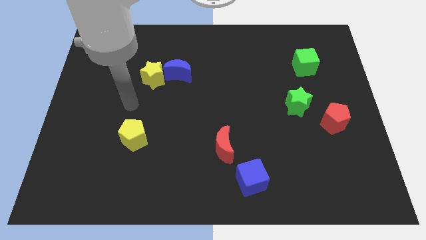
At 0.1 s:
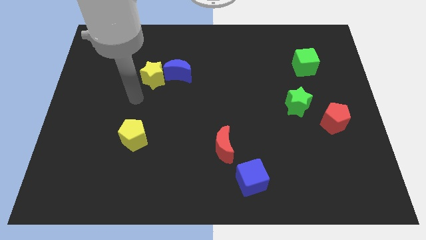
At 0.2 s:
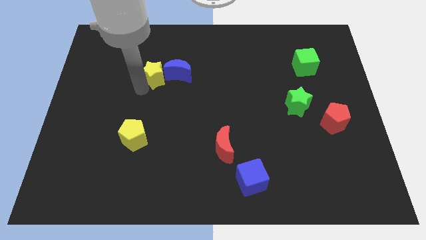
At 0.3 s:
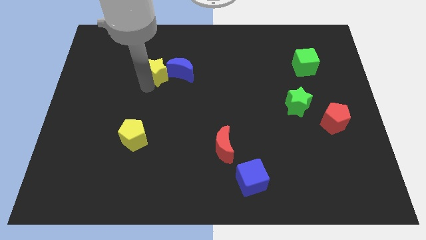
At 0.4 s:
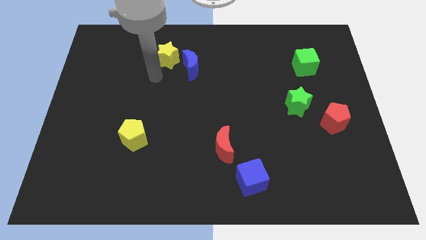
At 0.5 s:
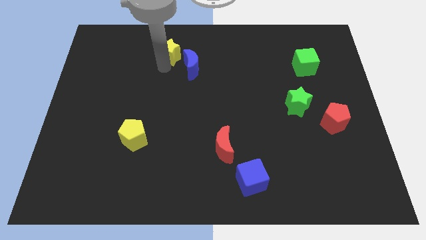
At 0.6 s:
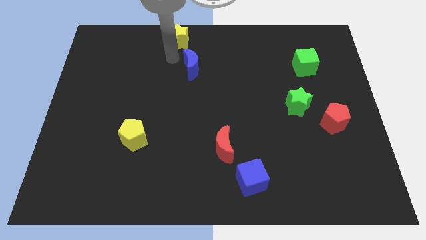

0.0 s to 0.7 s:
move the blue moon away from the yellow star

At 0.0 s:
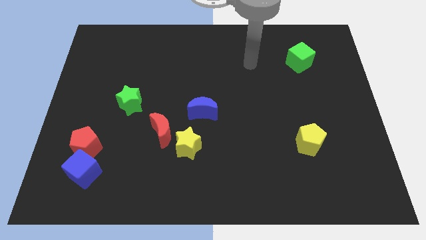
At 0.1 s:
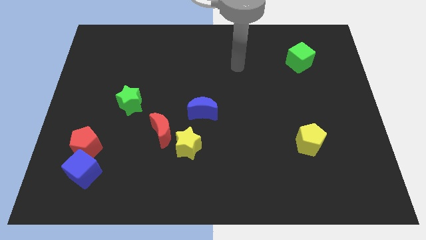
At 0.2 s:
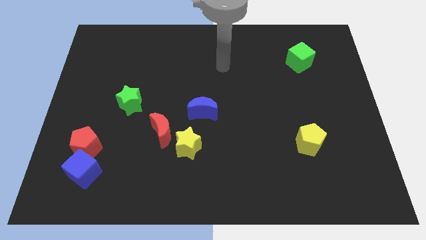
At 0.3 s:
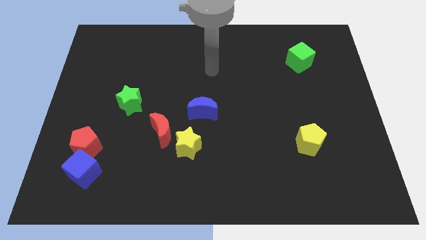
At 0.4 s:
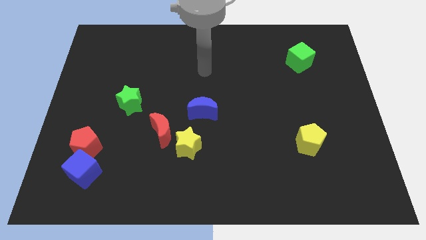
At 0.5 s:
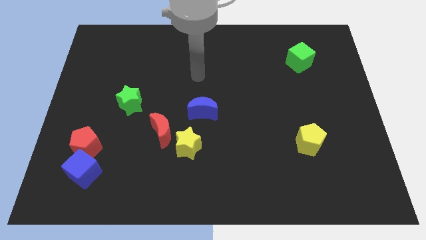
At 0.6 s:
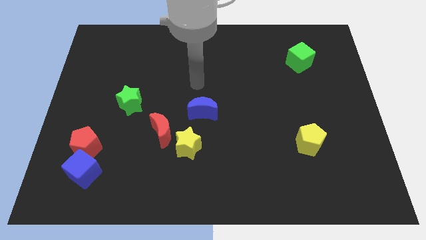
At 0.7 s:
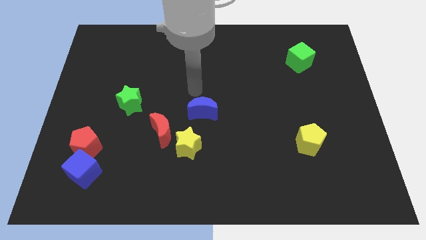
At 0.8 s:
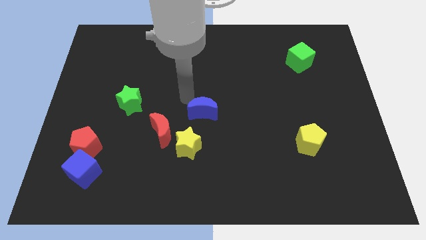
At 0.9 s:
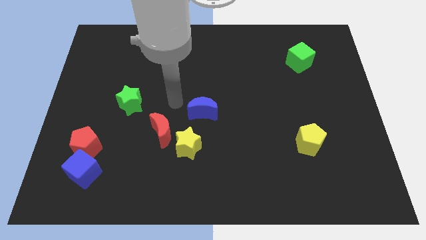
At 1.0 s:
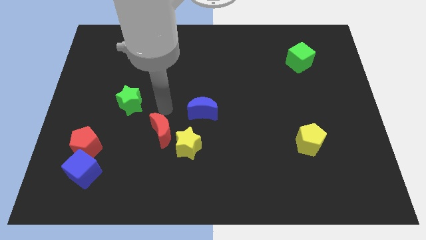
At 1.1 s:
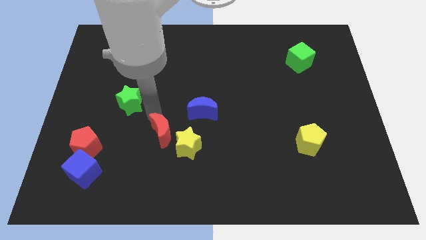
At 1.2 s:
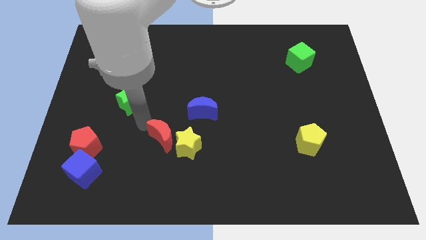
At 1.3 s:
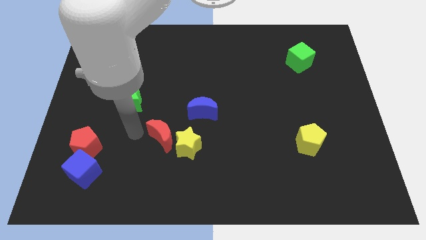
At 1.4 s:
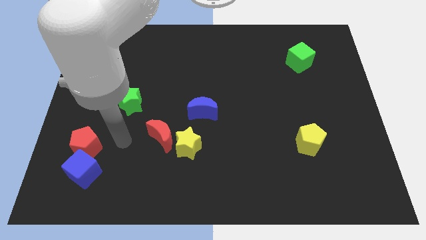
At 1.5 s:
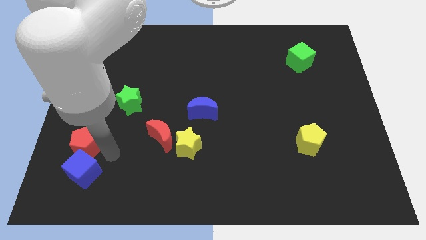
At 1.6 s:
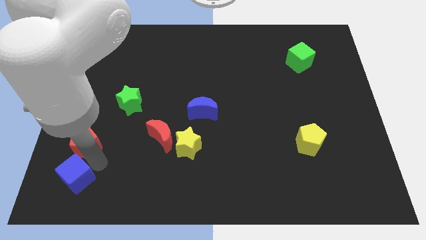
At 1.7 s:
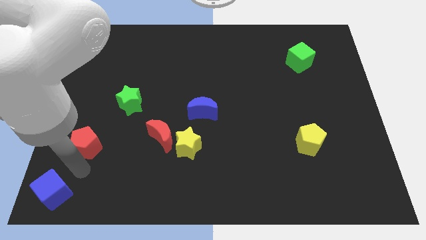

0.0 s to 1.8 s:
pull the red pentagon apart from the blue cube

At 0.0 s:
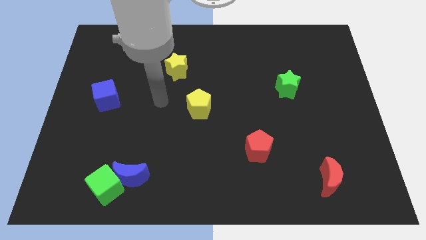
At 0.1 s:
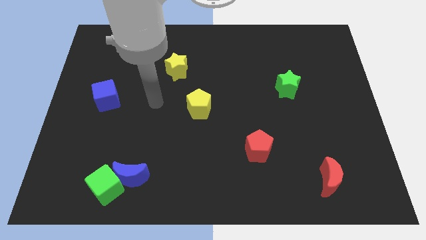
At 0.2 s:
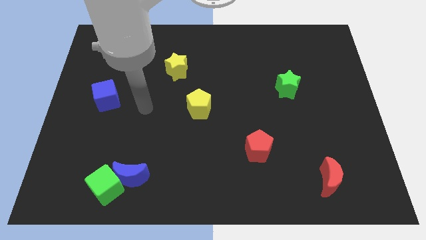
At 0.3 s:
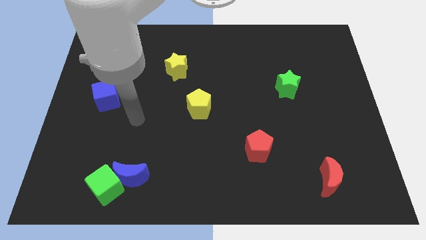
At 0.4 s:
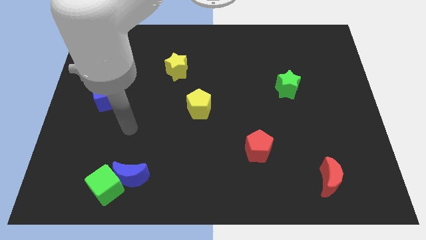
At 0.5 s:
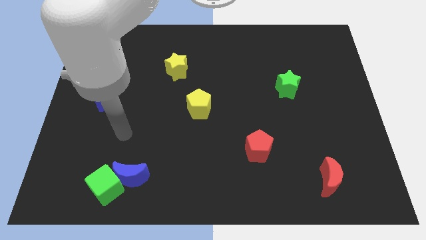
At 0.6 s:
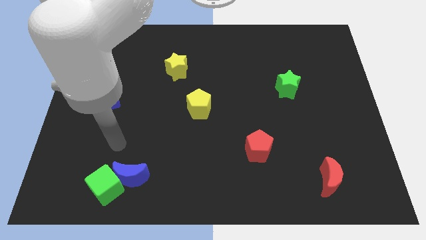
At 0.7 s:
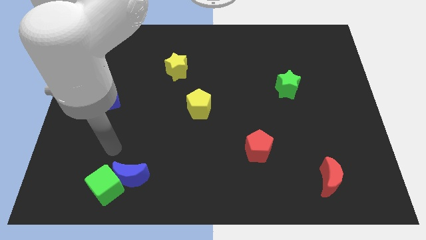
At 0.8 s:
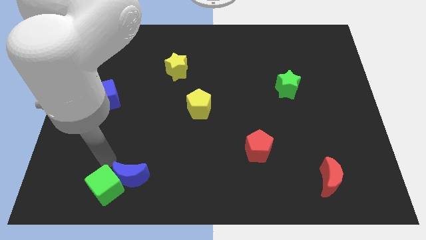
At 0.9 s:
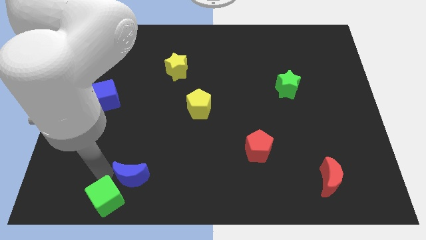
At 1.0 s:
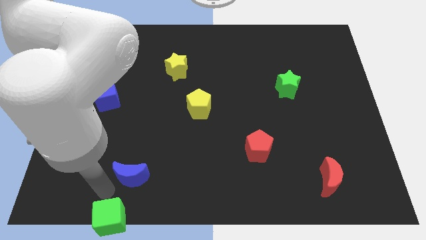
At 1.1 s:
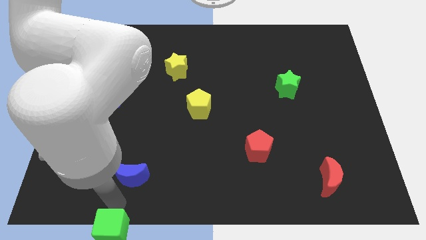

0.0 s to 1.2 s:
move the blue moon away from the green cube

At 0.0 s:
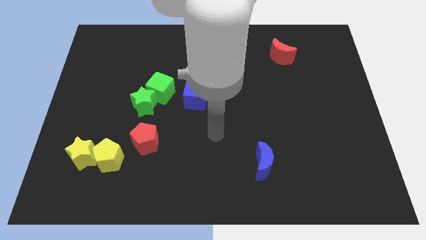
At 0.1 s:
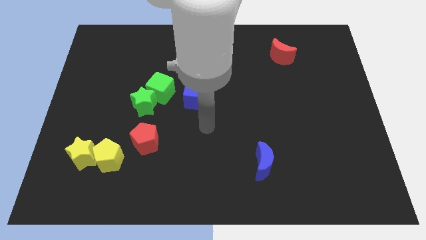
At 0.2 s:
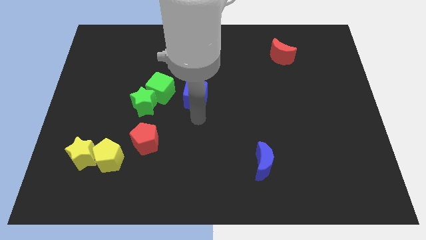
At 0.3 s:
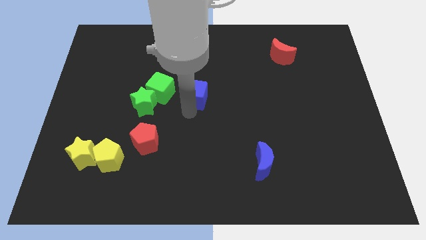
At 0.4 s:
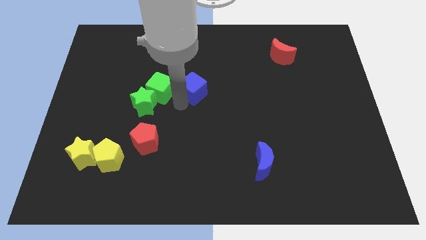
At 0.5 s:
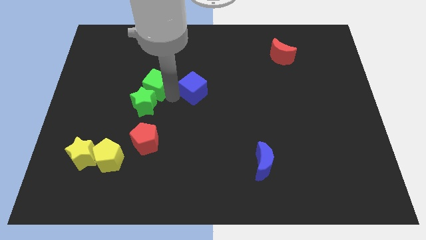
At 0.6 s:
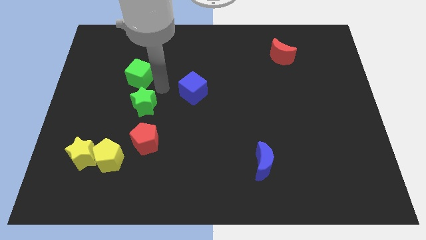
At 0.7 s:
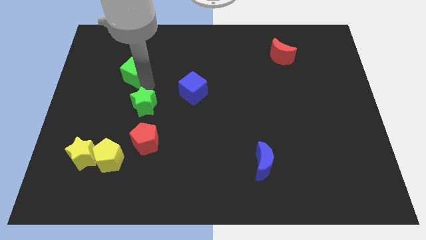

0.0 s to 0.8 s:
separate the green star from the green cube

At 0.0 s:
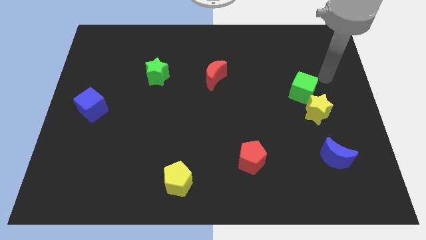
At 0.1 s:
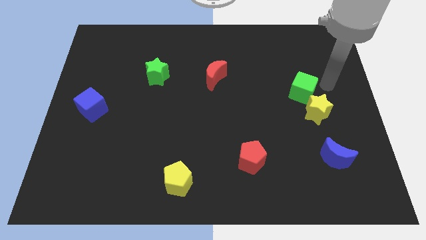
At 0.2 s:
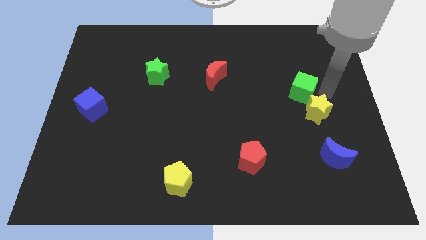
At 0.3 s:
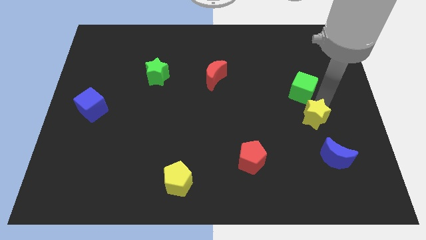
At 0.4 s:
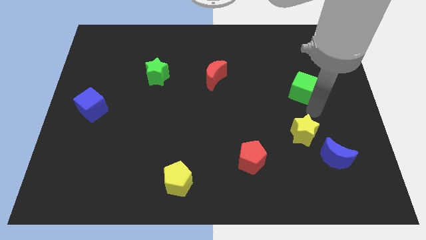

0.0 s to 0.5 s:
pull the green cube apart from the yellow star

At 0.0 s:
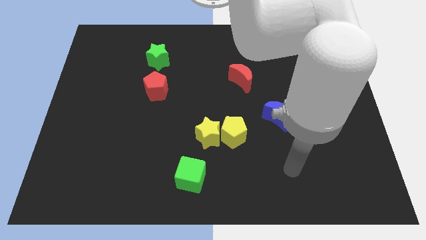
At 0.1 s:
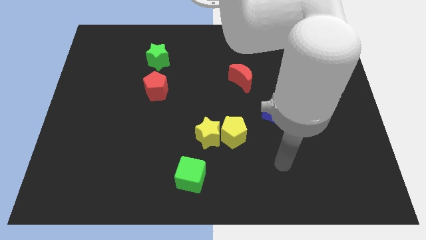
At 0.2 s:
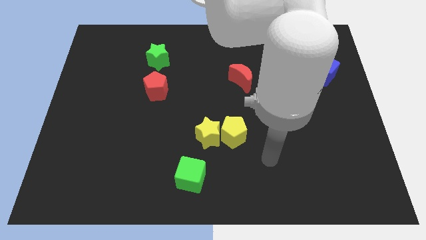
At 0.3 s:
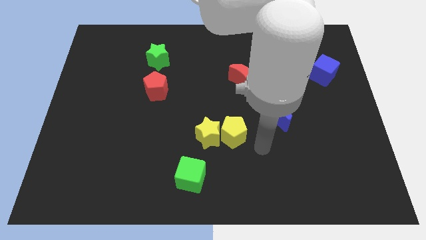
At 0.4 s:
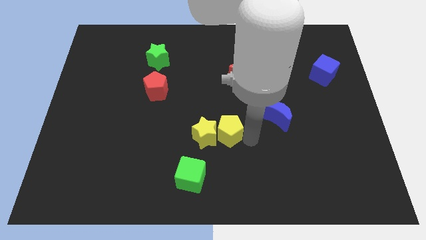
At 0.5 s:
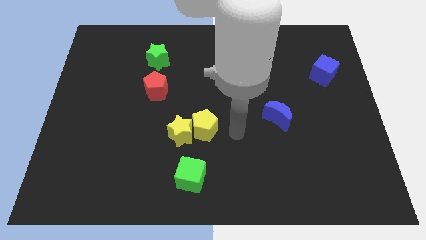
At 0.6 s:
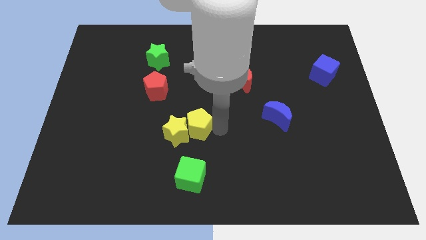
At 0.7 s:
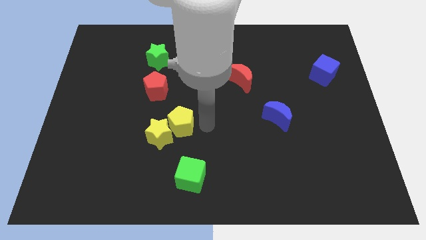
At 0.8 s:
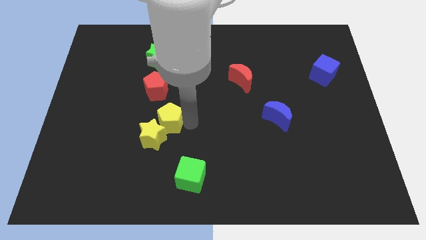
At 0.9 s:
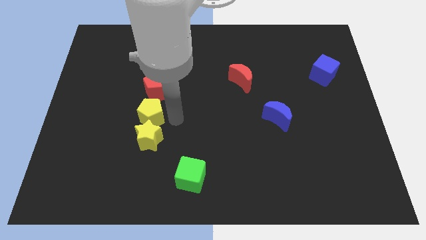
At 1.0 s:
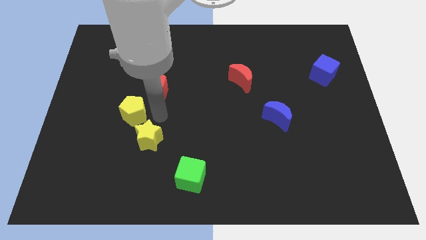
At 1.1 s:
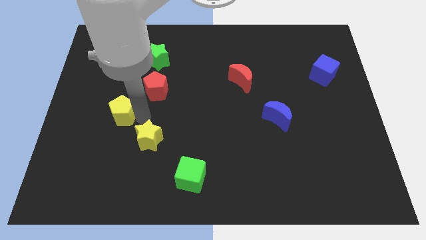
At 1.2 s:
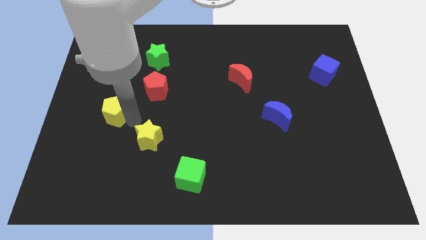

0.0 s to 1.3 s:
pull the yellow star apart from the yellow pentagon

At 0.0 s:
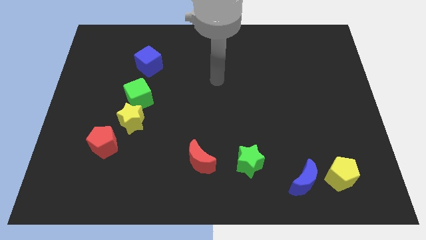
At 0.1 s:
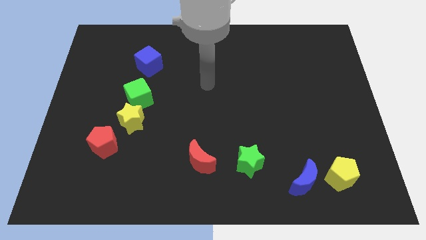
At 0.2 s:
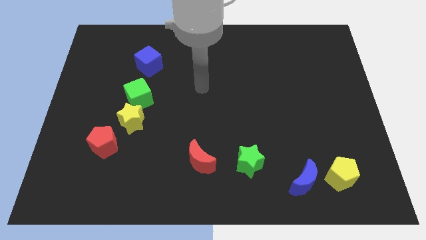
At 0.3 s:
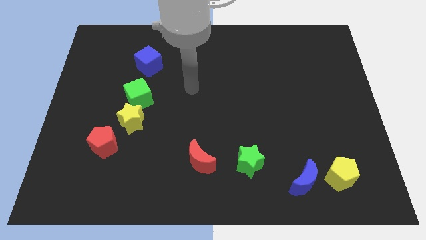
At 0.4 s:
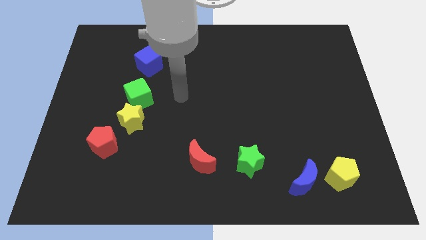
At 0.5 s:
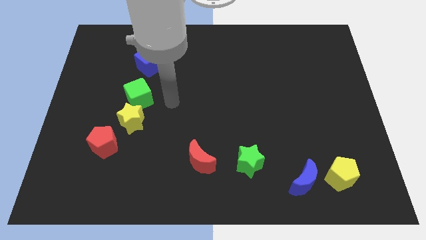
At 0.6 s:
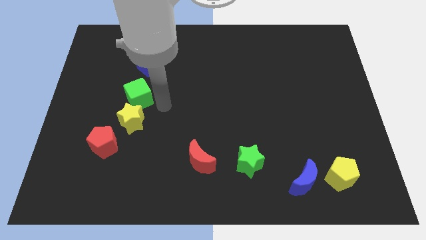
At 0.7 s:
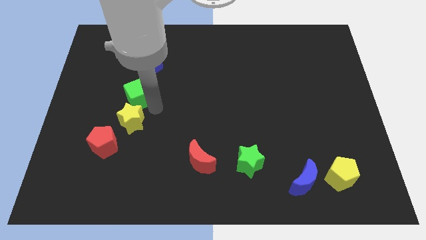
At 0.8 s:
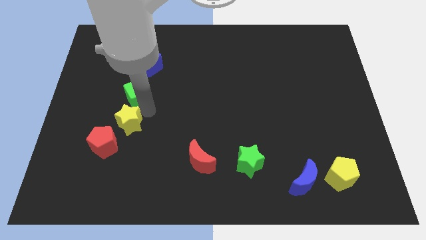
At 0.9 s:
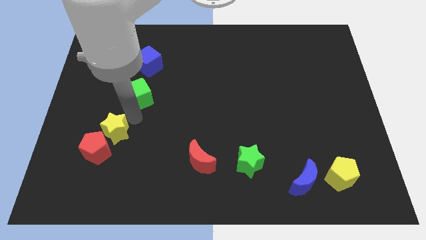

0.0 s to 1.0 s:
move the green cube away from the yellow star

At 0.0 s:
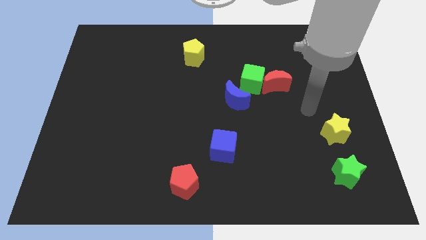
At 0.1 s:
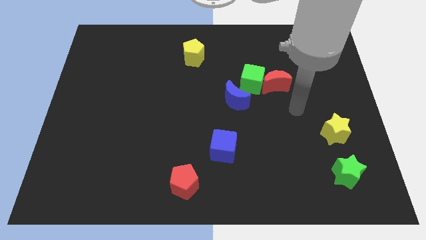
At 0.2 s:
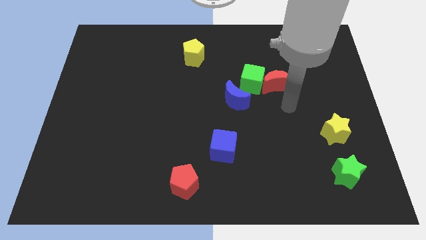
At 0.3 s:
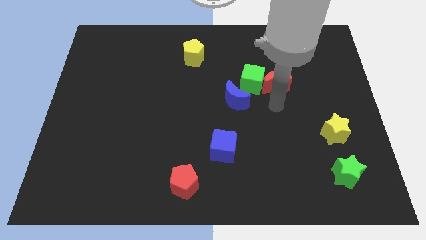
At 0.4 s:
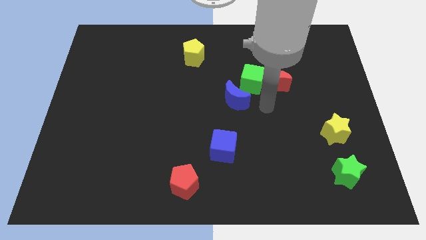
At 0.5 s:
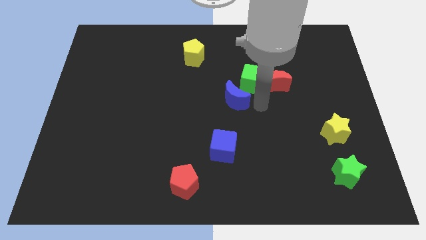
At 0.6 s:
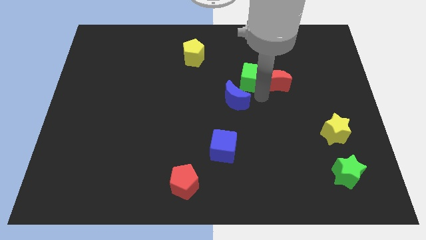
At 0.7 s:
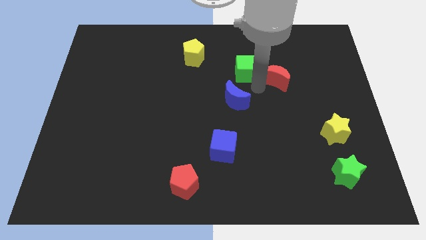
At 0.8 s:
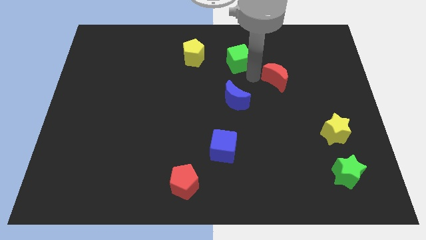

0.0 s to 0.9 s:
separate the red moon from the green cube

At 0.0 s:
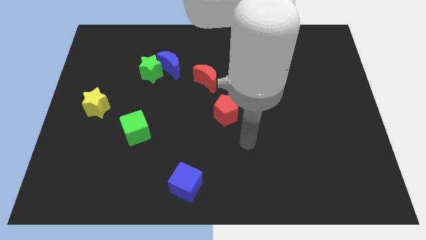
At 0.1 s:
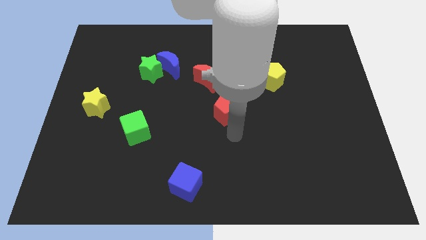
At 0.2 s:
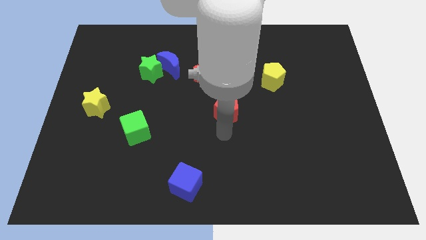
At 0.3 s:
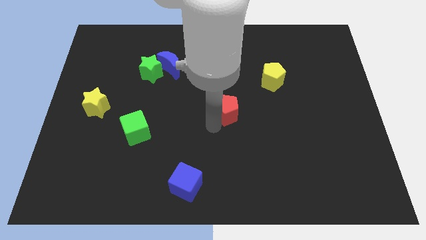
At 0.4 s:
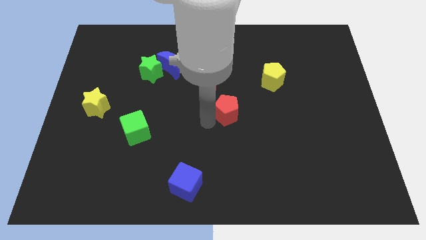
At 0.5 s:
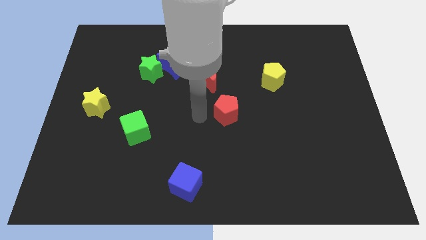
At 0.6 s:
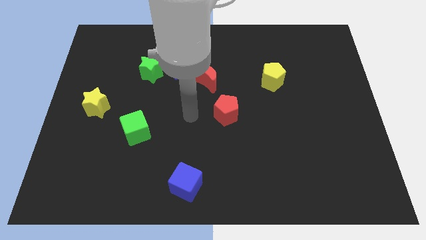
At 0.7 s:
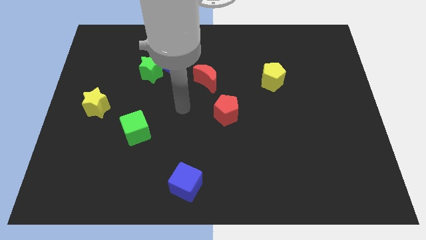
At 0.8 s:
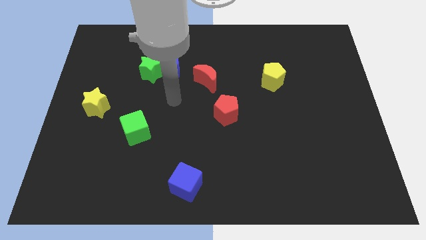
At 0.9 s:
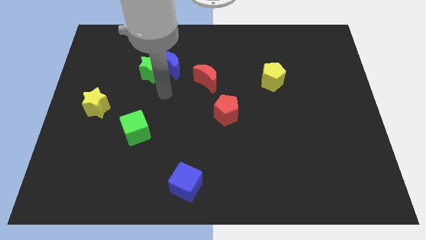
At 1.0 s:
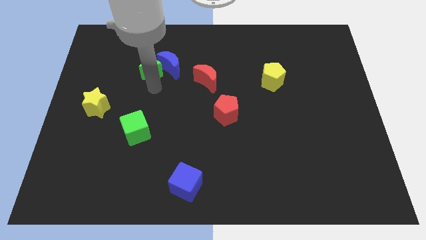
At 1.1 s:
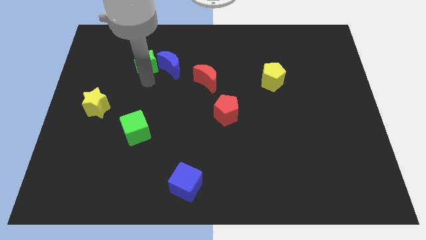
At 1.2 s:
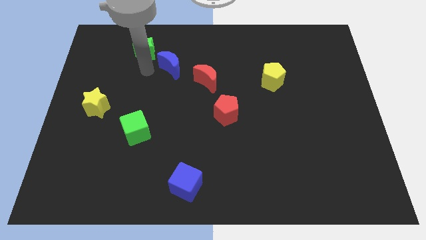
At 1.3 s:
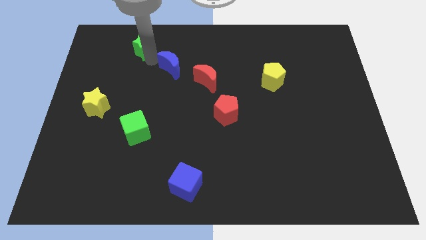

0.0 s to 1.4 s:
pull the blue moon apart from the green star
